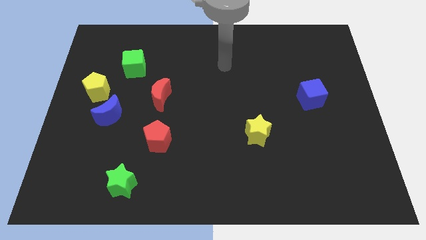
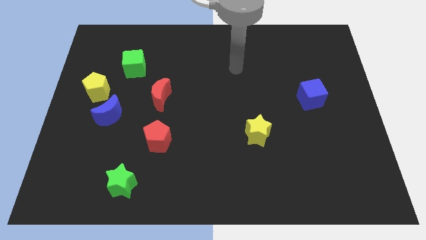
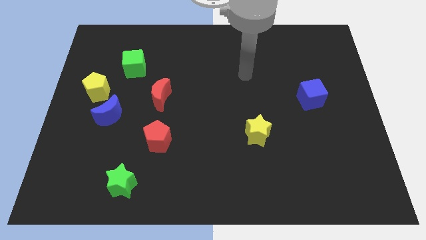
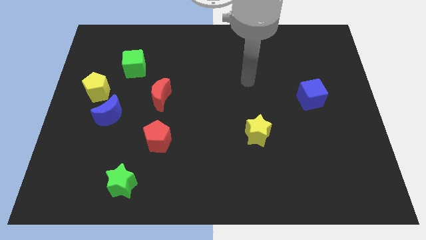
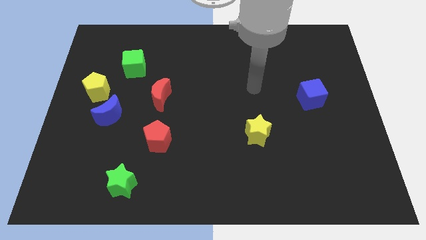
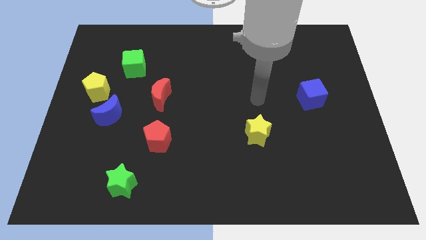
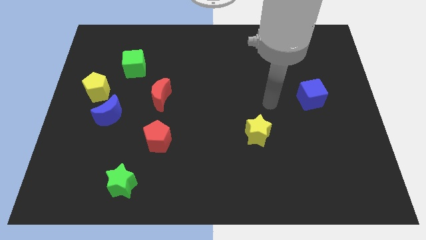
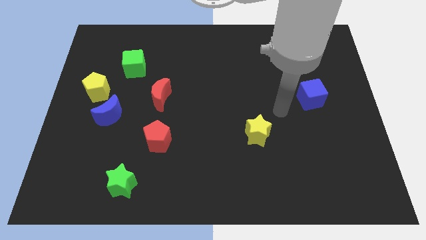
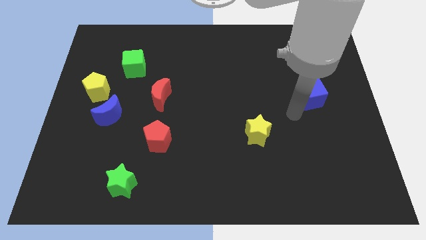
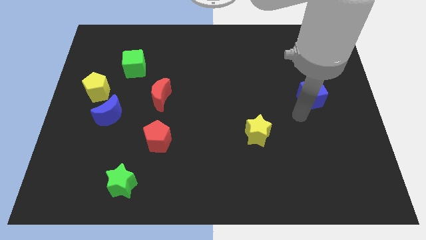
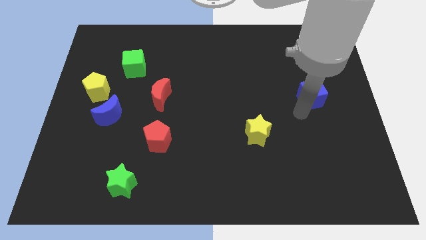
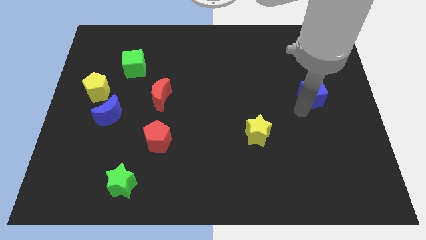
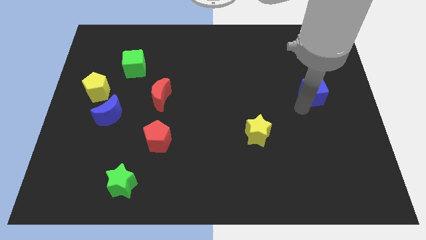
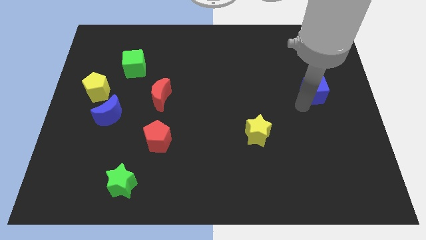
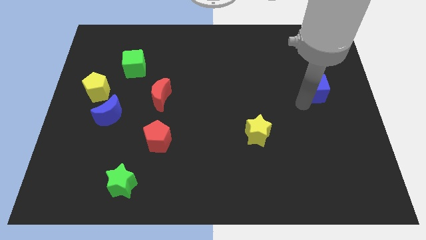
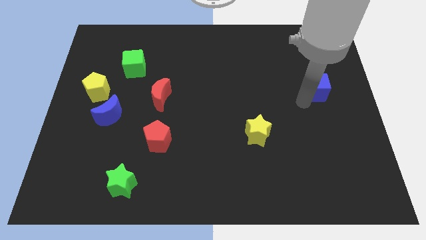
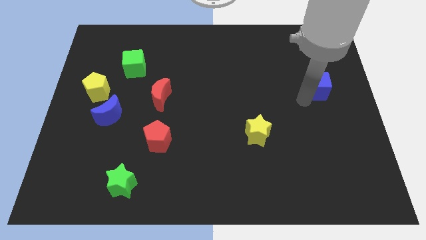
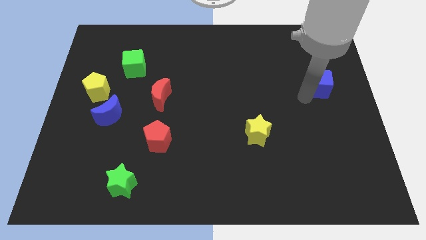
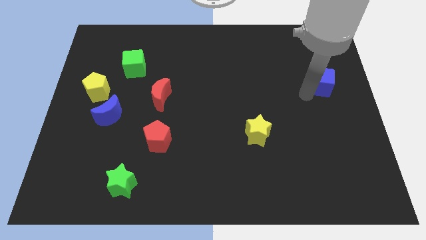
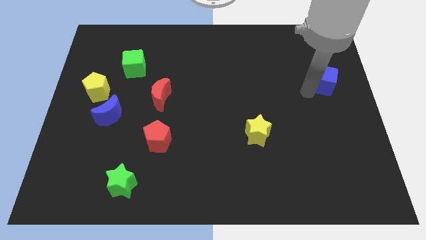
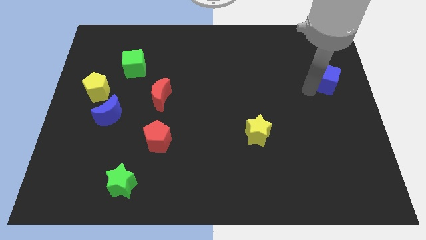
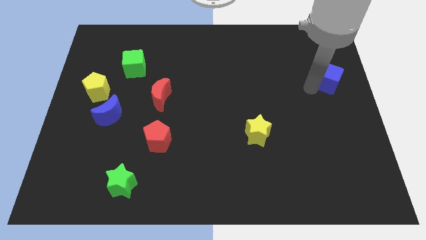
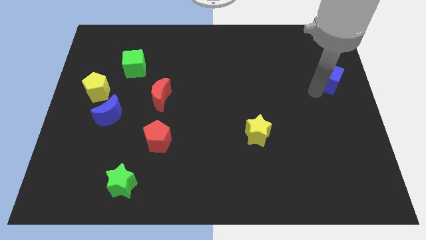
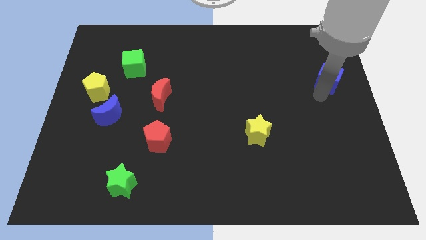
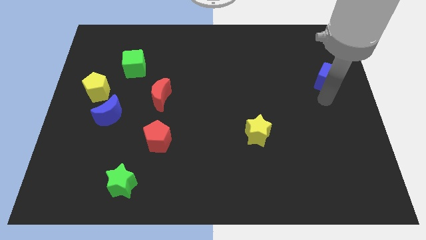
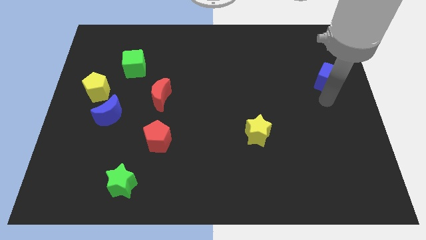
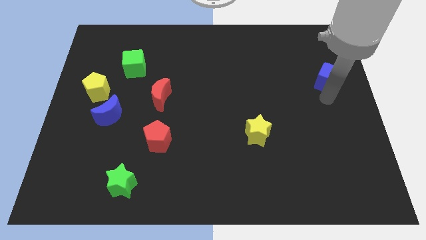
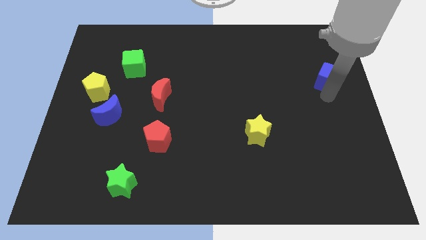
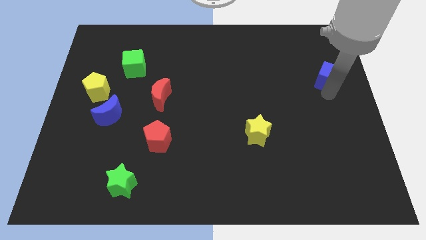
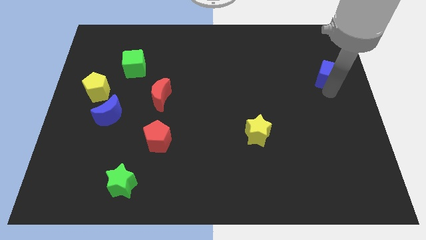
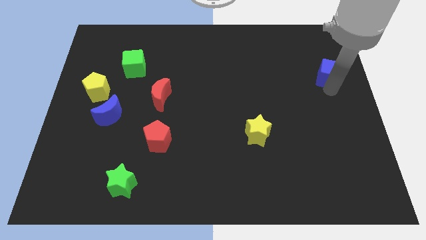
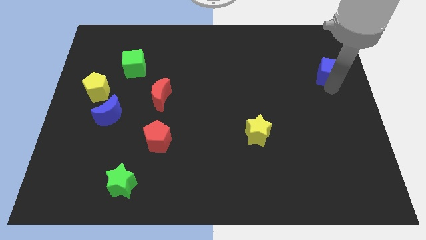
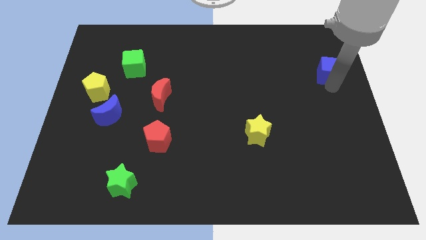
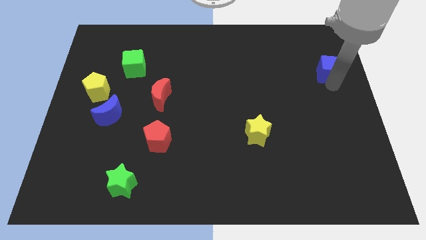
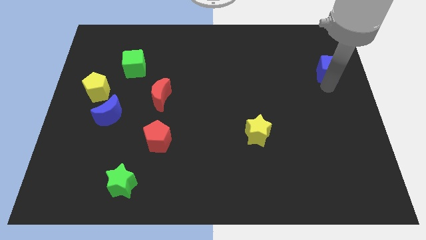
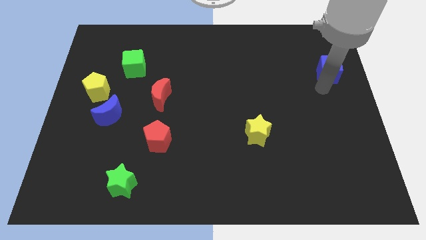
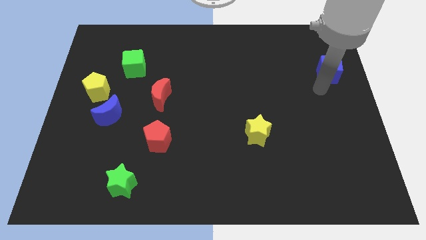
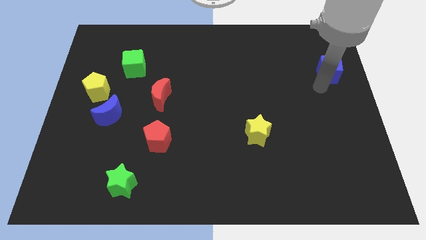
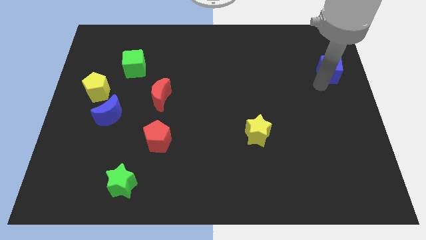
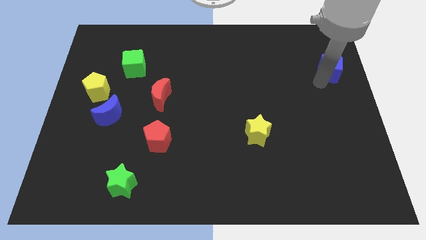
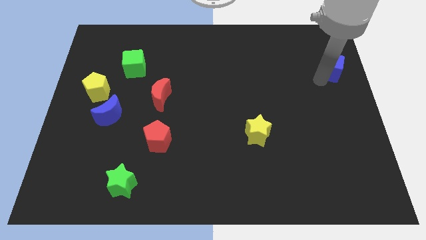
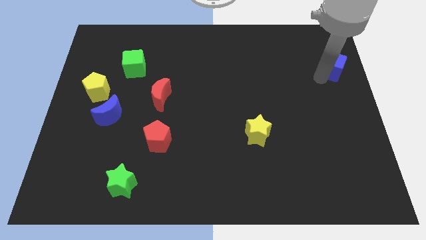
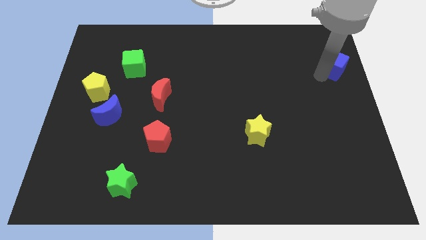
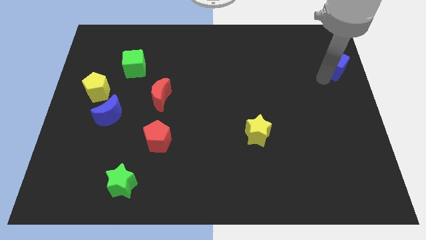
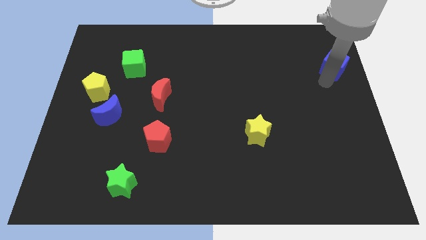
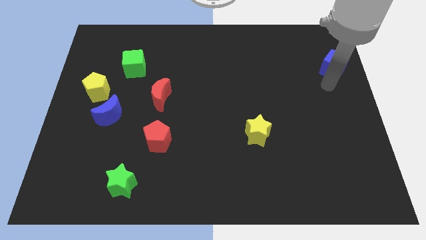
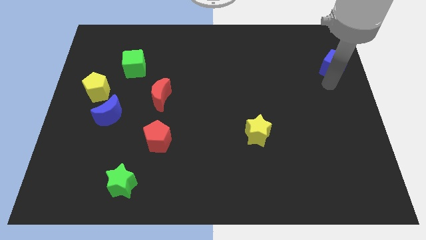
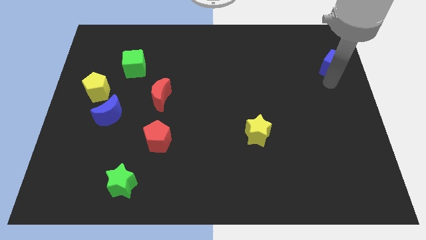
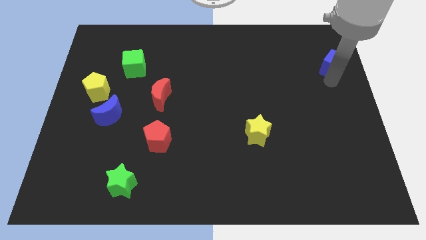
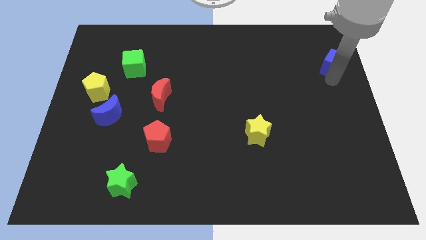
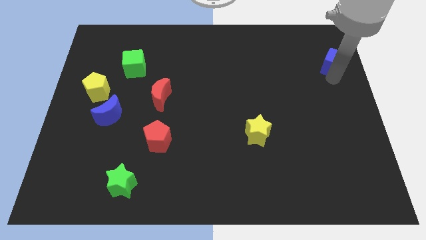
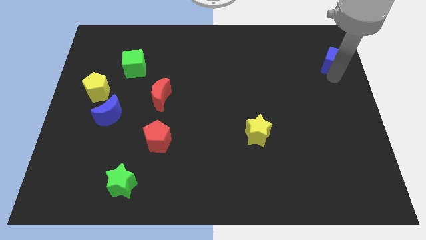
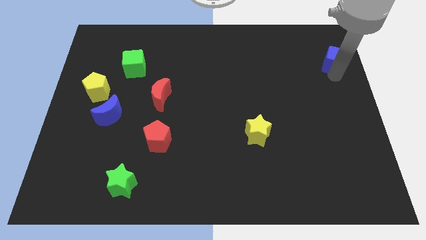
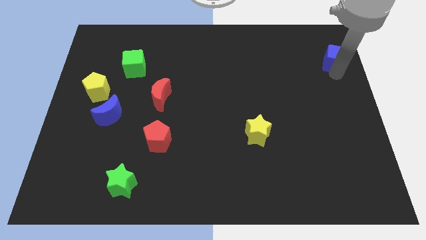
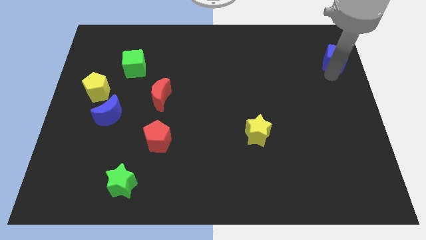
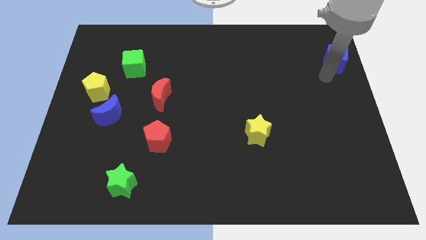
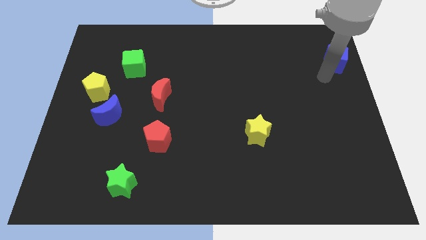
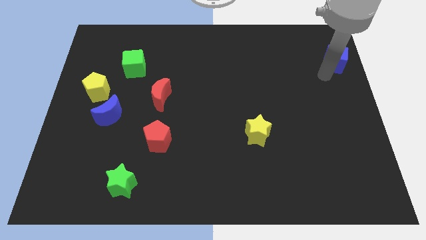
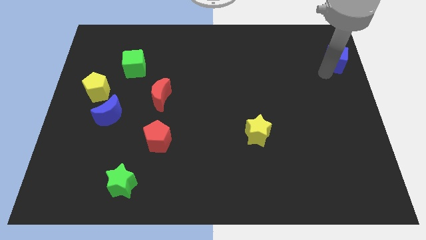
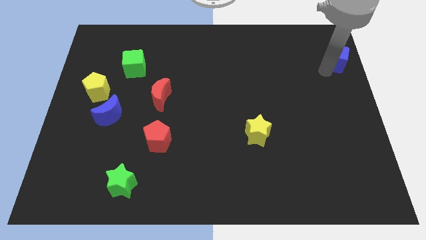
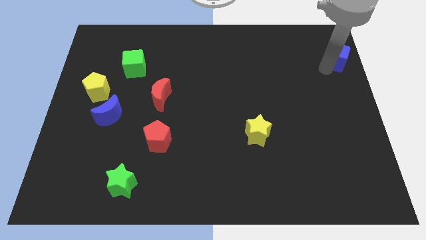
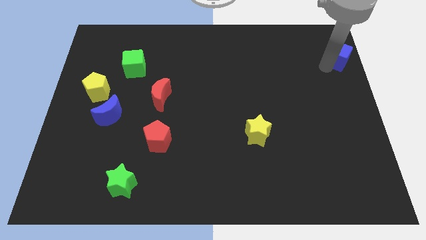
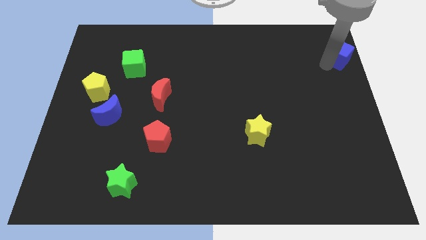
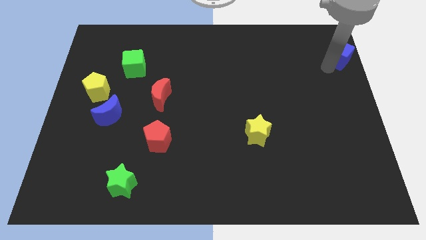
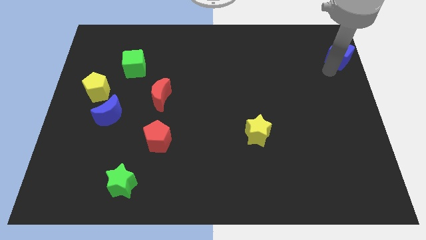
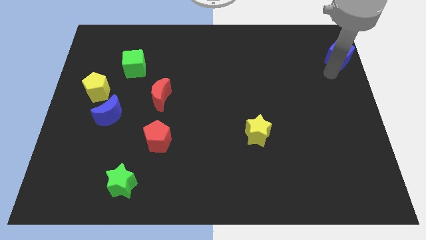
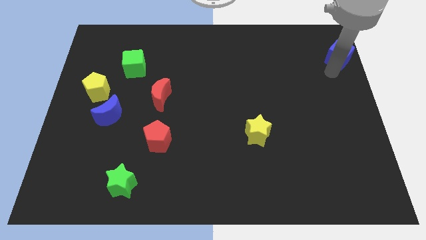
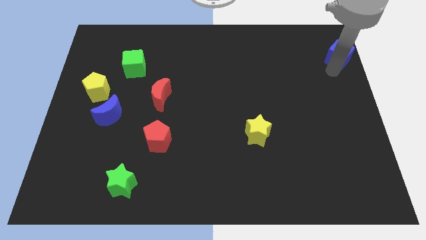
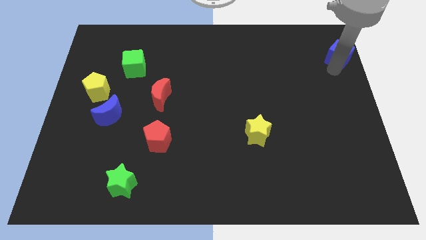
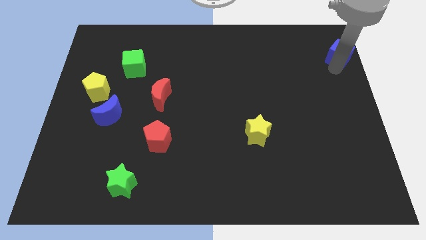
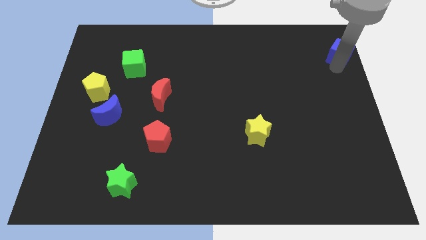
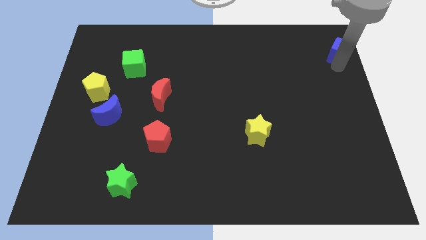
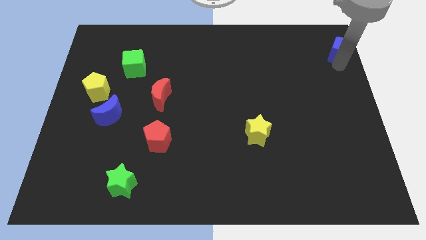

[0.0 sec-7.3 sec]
slide the blue cube to the top right of the board
